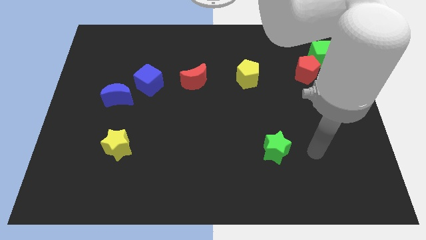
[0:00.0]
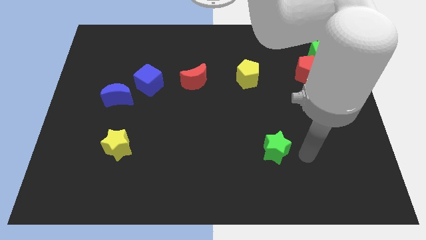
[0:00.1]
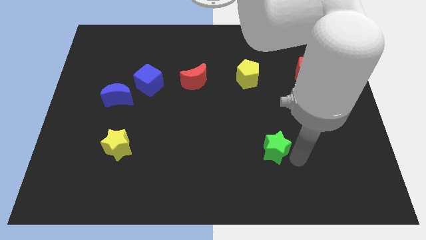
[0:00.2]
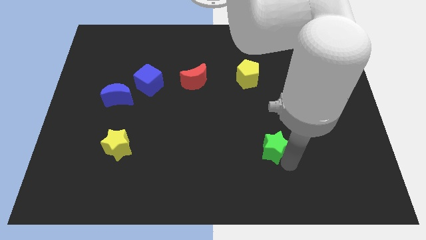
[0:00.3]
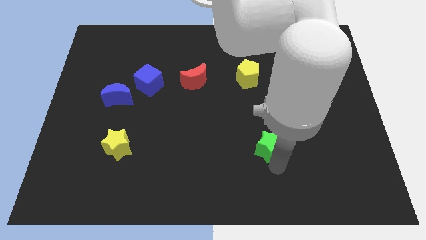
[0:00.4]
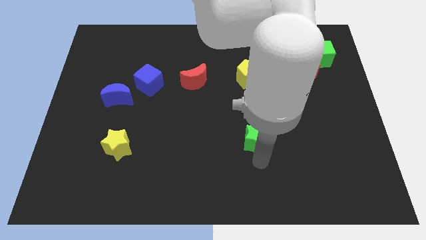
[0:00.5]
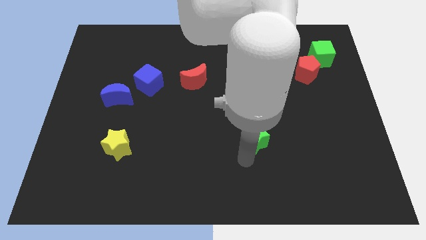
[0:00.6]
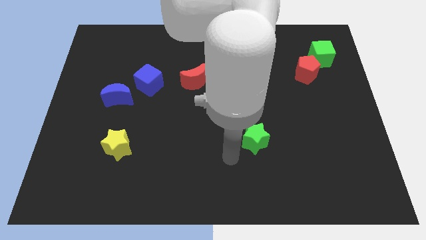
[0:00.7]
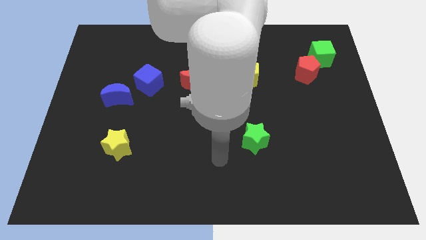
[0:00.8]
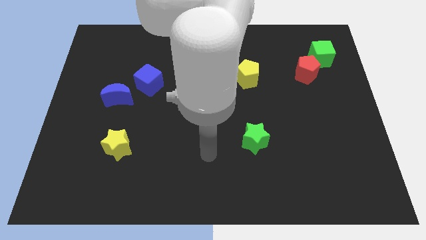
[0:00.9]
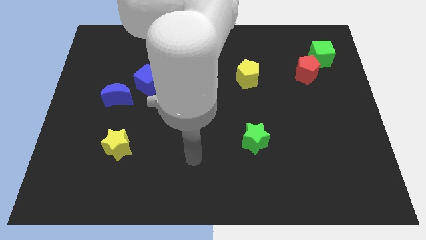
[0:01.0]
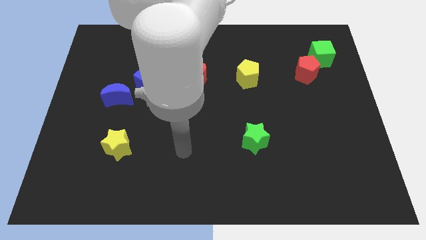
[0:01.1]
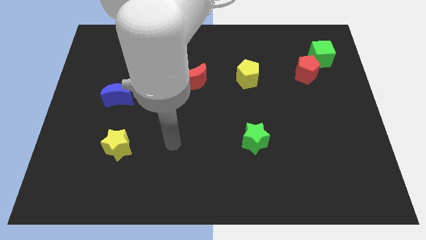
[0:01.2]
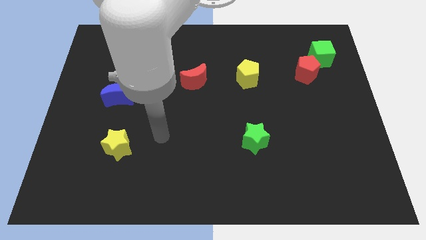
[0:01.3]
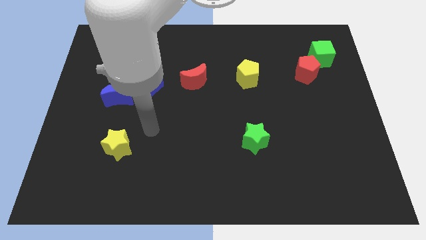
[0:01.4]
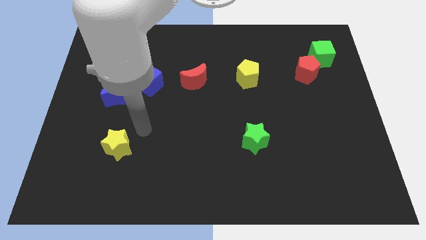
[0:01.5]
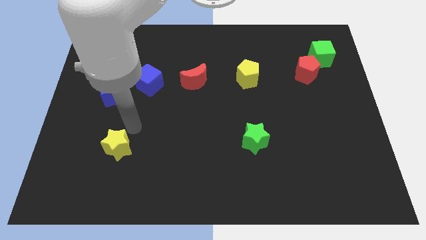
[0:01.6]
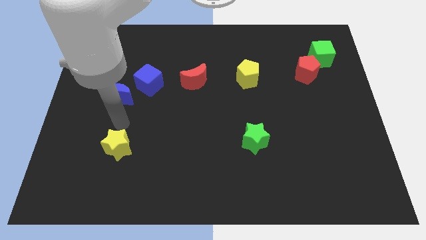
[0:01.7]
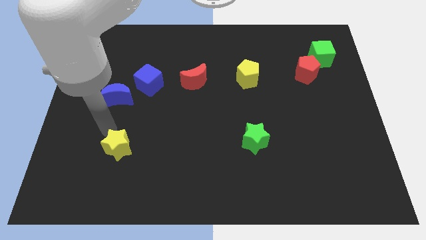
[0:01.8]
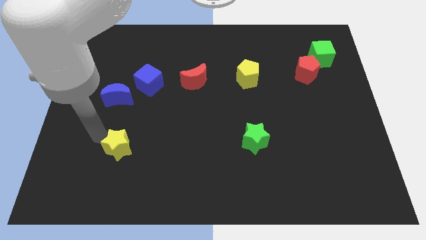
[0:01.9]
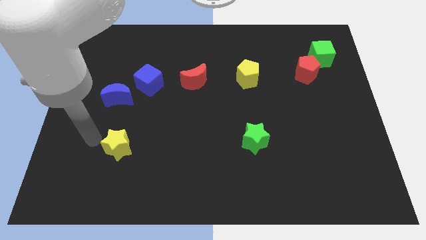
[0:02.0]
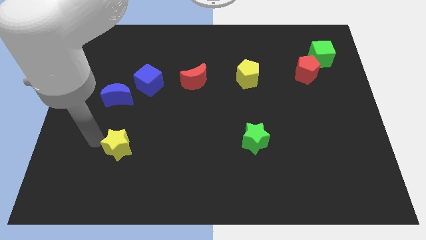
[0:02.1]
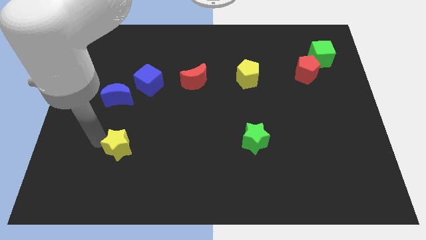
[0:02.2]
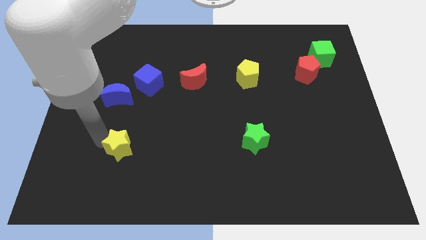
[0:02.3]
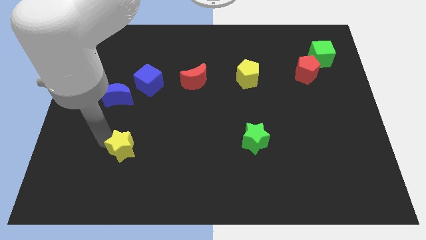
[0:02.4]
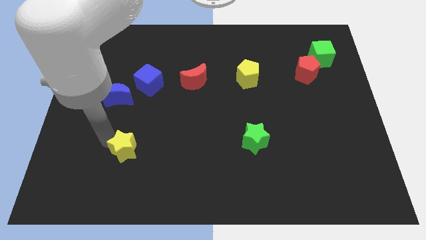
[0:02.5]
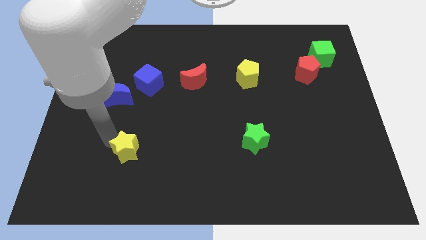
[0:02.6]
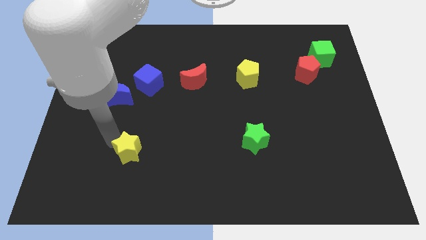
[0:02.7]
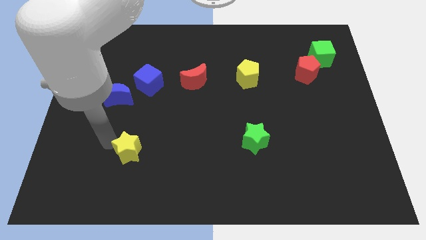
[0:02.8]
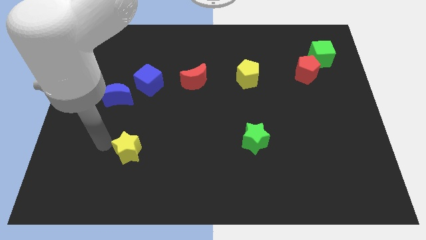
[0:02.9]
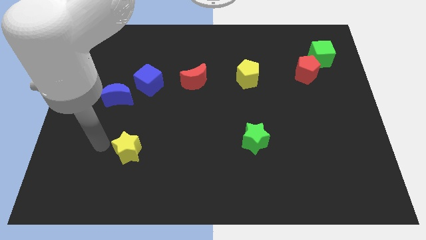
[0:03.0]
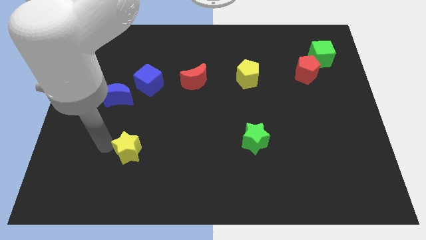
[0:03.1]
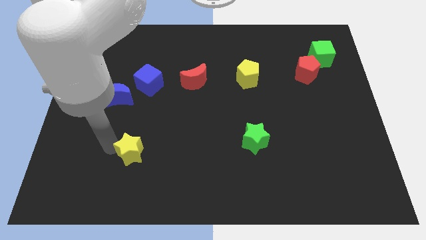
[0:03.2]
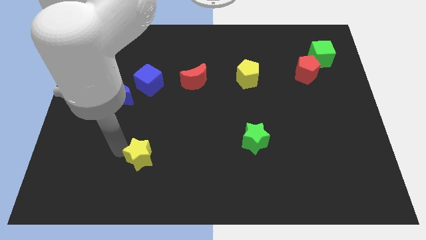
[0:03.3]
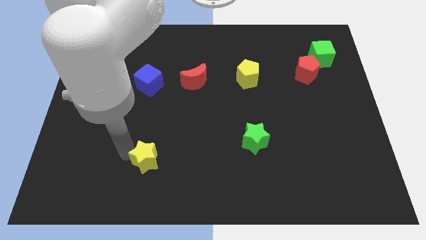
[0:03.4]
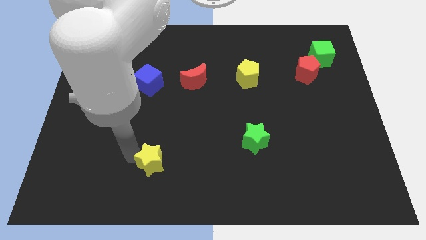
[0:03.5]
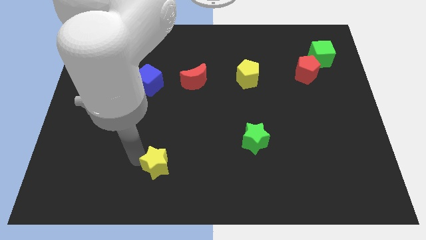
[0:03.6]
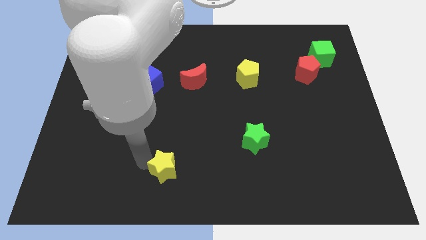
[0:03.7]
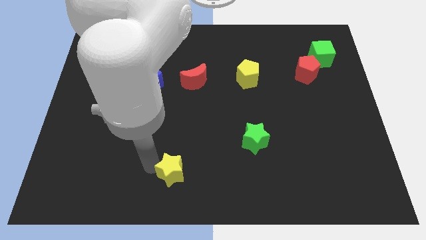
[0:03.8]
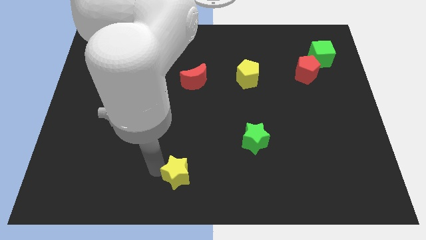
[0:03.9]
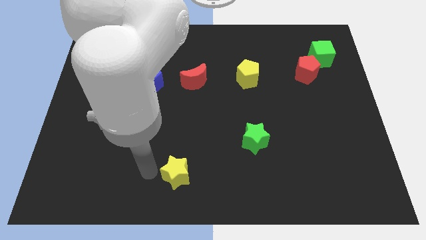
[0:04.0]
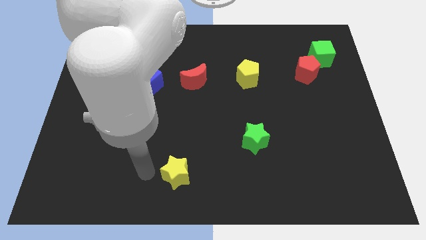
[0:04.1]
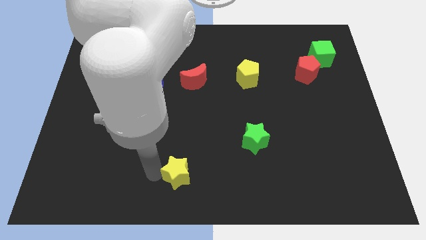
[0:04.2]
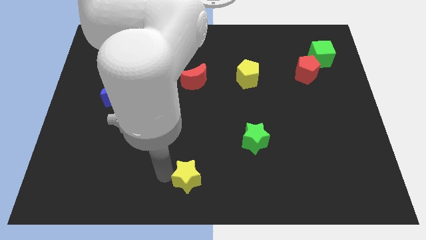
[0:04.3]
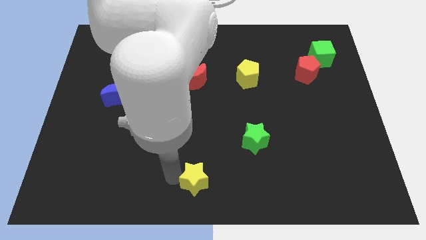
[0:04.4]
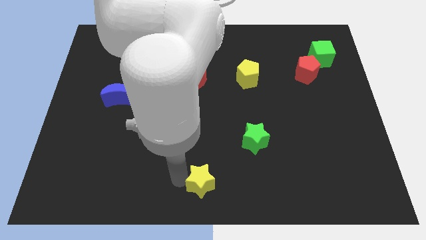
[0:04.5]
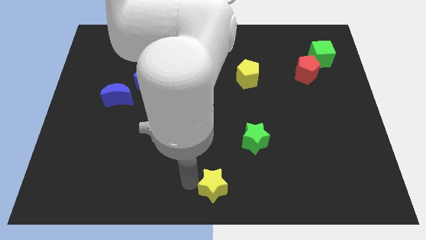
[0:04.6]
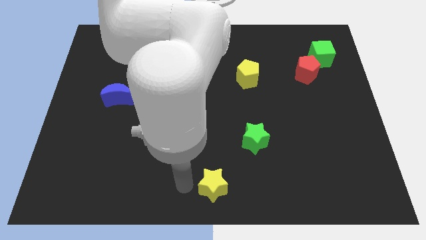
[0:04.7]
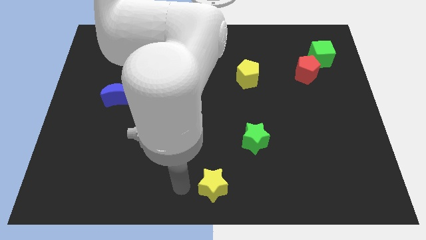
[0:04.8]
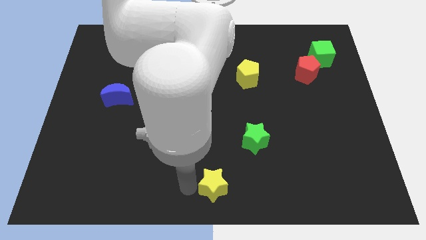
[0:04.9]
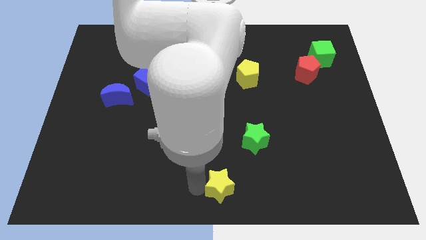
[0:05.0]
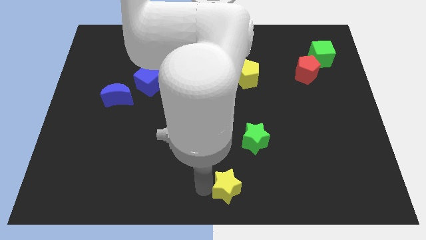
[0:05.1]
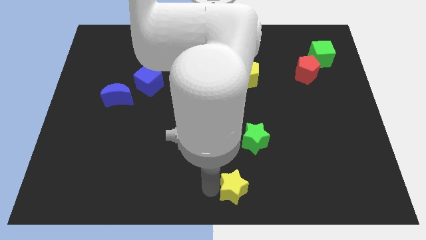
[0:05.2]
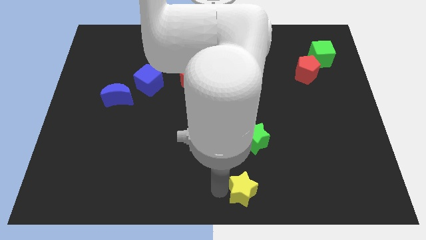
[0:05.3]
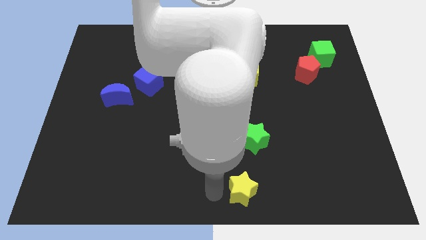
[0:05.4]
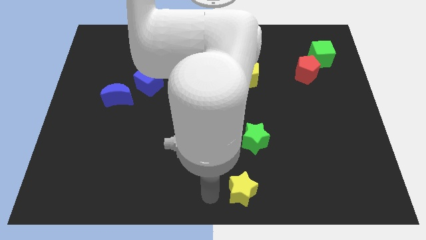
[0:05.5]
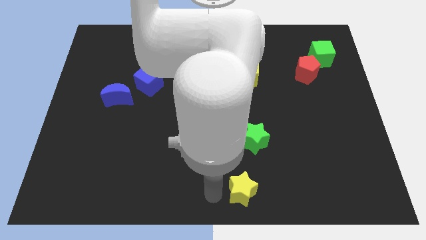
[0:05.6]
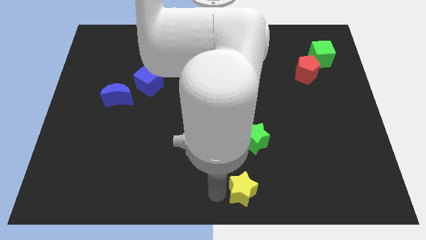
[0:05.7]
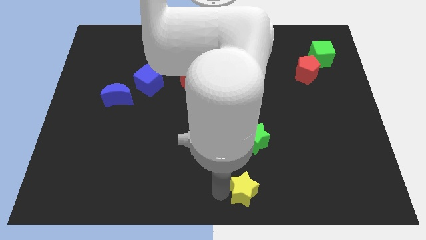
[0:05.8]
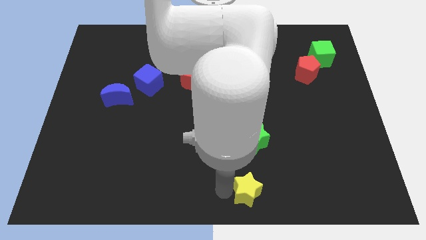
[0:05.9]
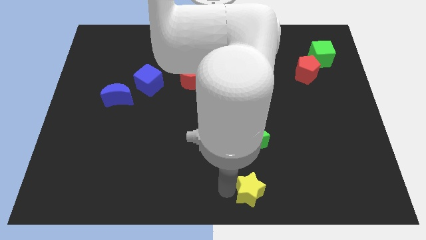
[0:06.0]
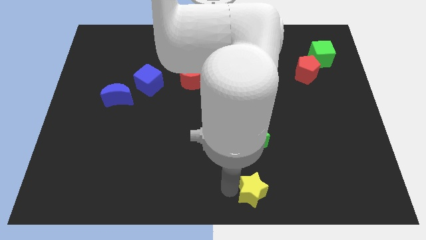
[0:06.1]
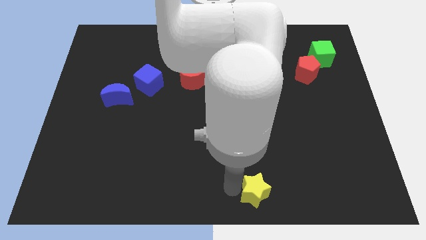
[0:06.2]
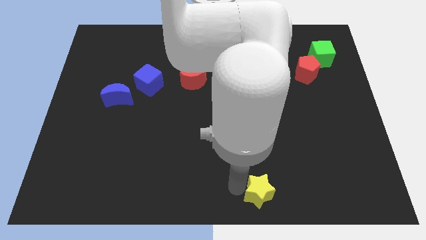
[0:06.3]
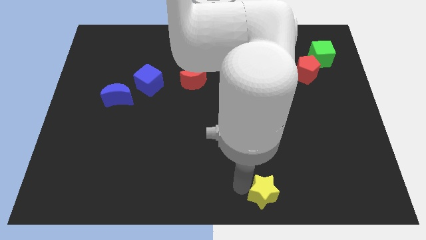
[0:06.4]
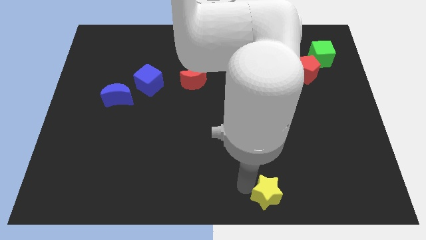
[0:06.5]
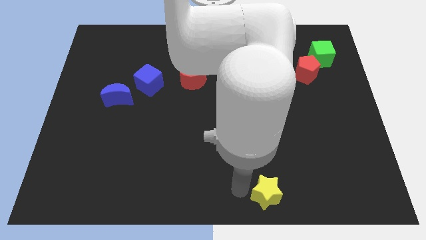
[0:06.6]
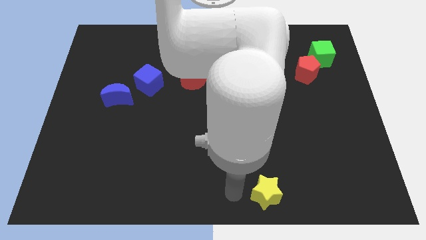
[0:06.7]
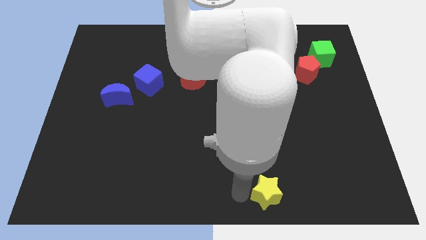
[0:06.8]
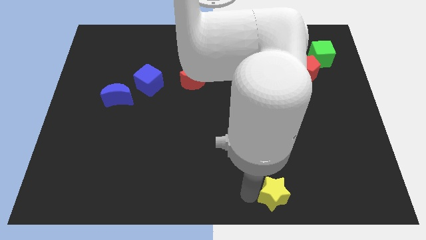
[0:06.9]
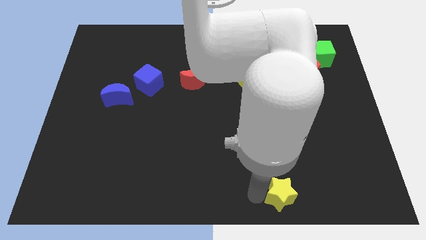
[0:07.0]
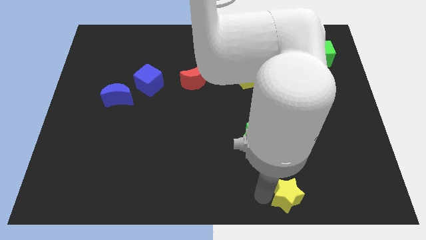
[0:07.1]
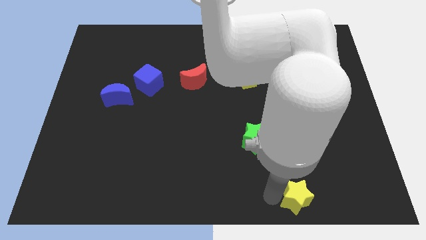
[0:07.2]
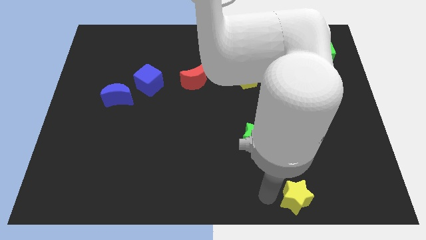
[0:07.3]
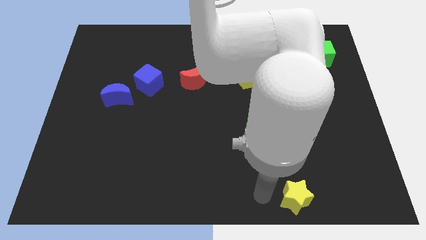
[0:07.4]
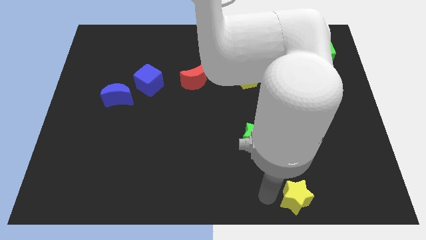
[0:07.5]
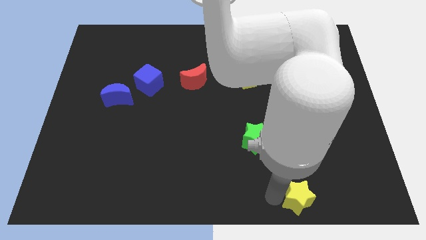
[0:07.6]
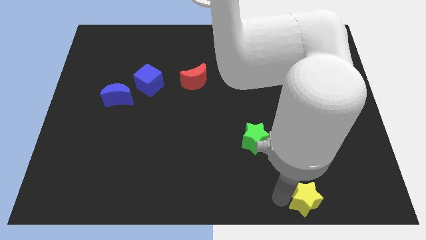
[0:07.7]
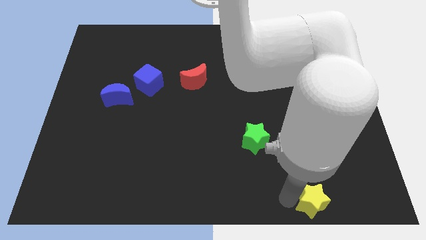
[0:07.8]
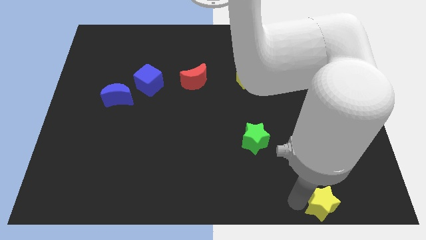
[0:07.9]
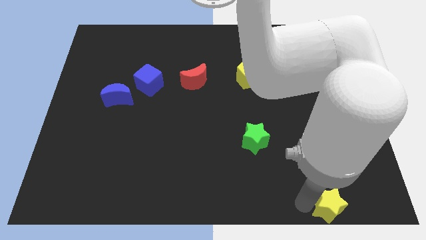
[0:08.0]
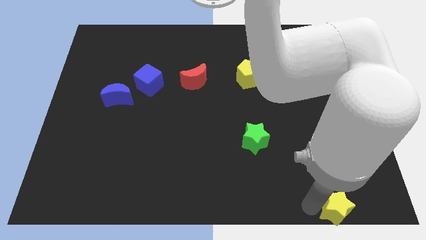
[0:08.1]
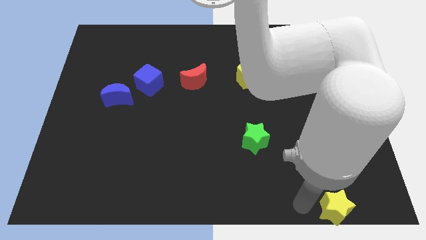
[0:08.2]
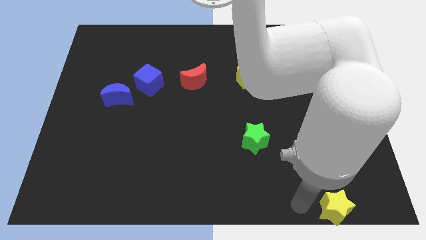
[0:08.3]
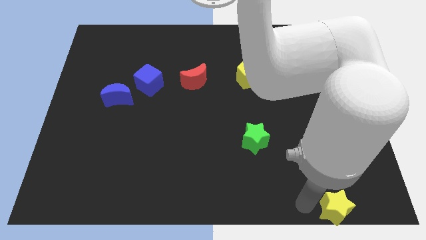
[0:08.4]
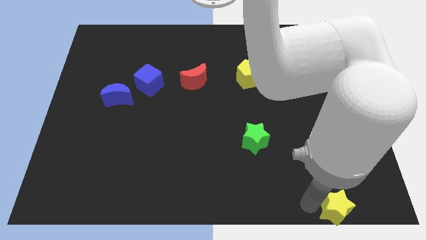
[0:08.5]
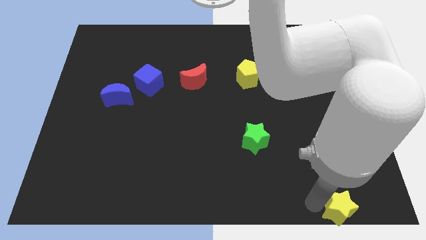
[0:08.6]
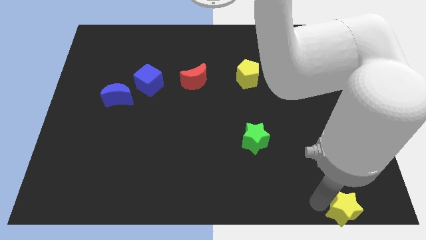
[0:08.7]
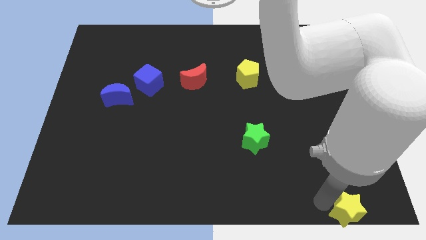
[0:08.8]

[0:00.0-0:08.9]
push the yellow star to the bottom right
